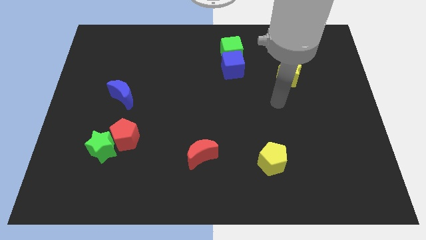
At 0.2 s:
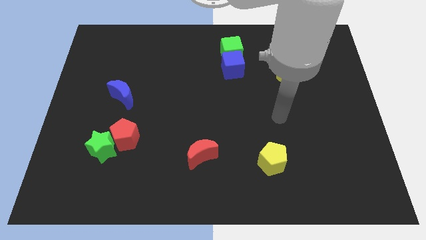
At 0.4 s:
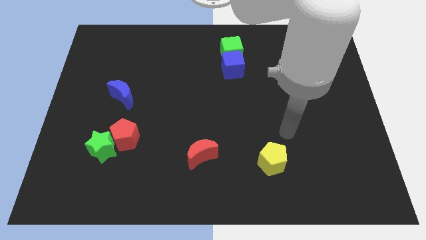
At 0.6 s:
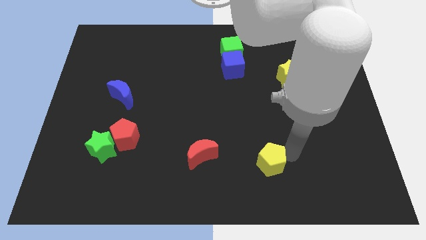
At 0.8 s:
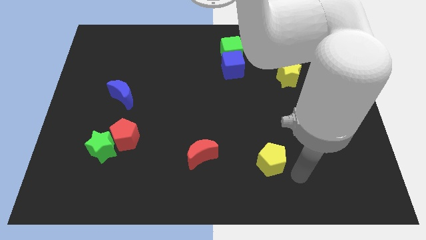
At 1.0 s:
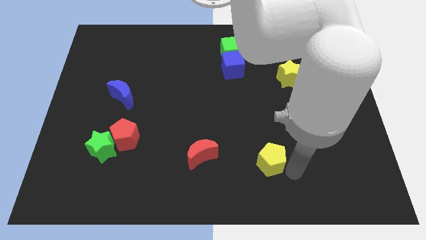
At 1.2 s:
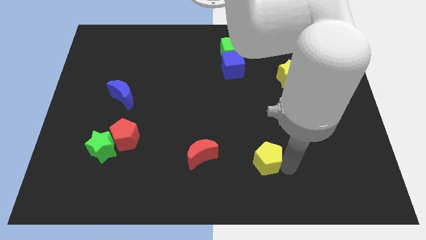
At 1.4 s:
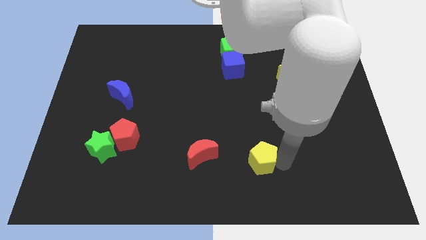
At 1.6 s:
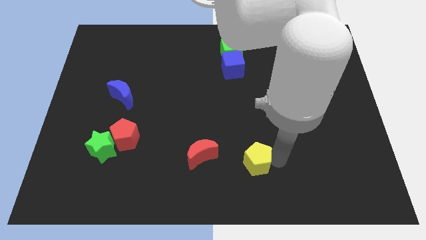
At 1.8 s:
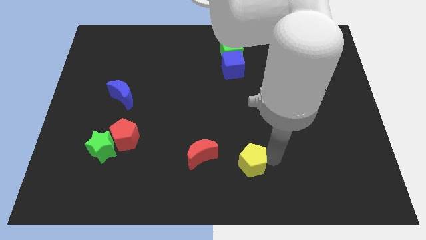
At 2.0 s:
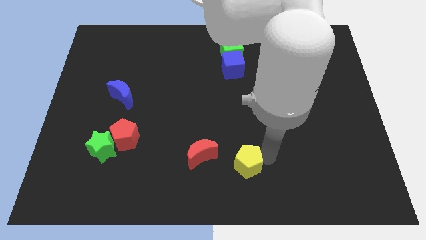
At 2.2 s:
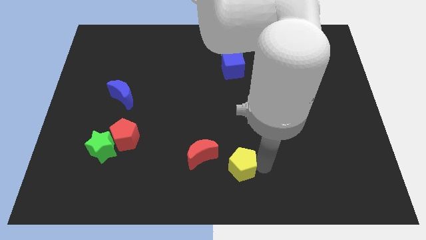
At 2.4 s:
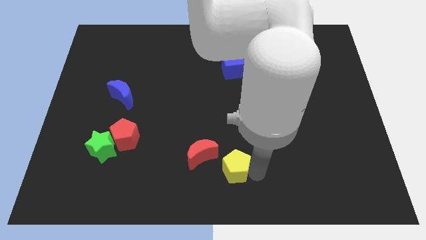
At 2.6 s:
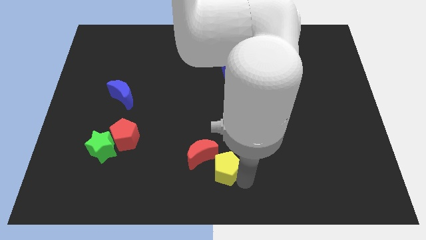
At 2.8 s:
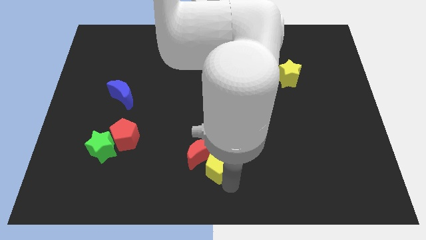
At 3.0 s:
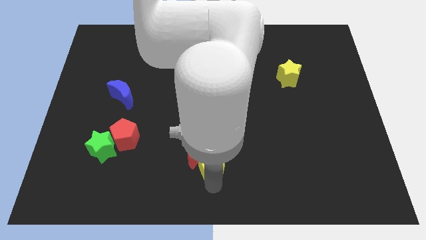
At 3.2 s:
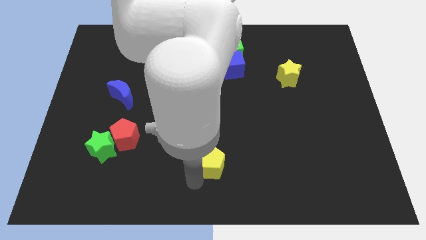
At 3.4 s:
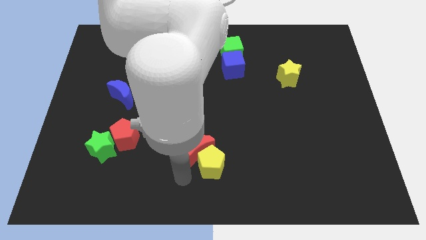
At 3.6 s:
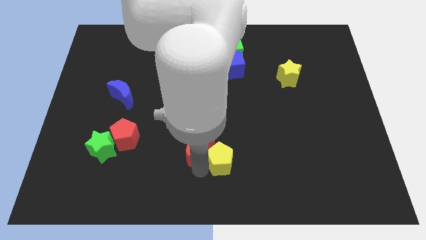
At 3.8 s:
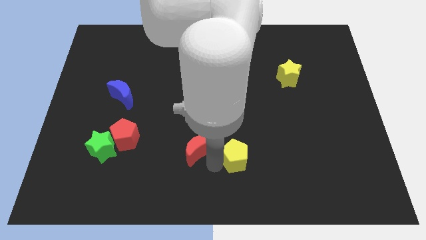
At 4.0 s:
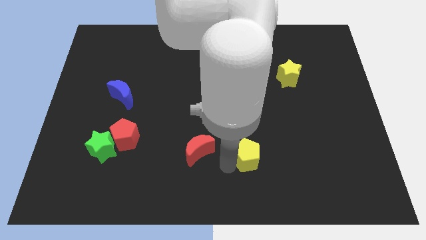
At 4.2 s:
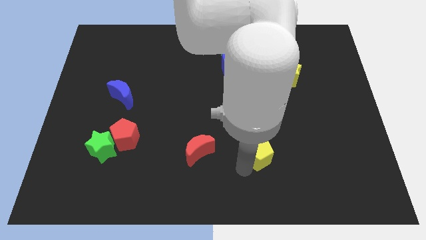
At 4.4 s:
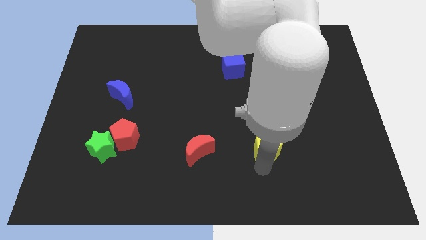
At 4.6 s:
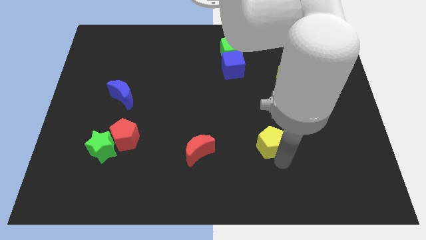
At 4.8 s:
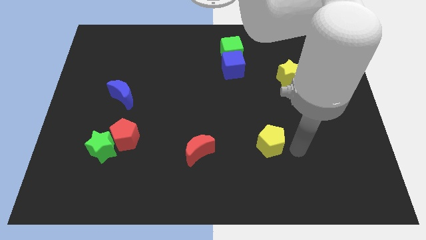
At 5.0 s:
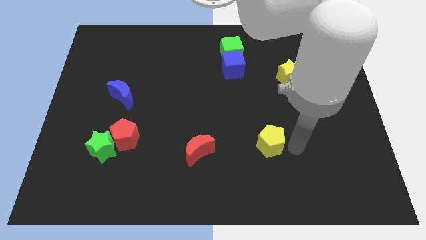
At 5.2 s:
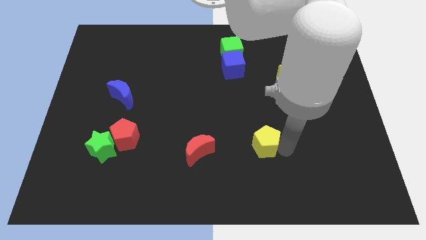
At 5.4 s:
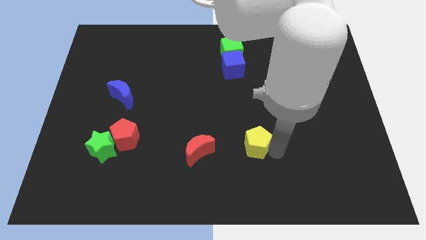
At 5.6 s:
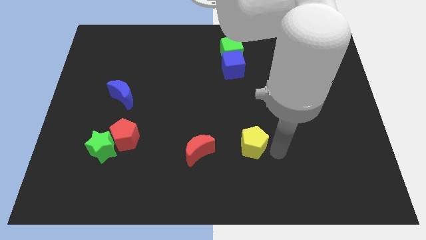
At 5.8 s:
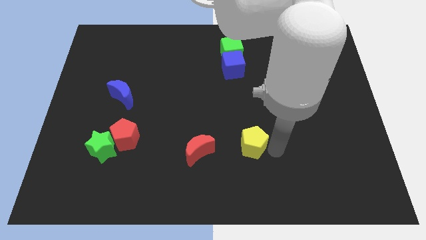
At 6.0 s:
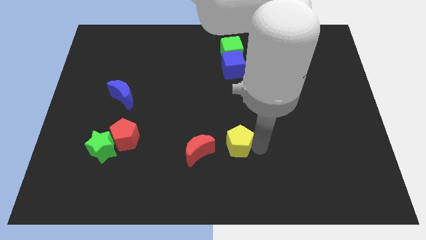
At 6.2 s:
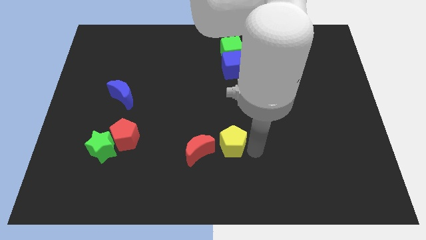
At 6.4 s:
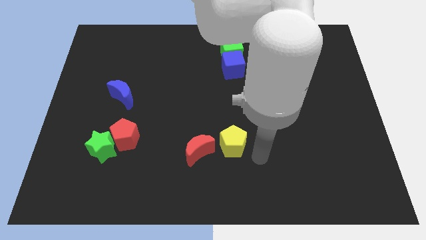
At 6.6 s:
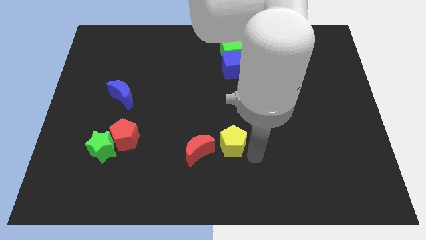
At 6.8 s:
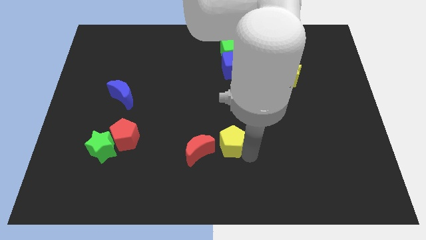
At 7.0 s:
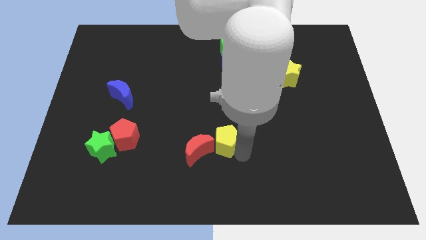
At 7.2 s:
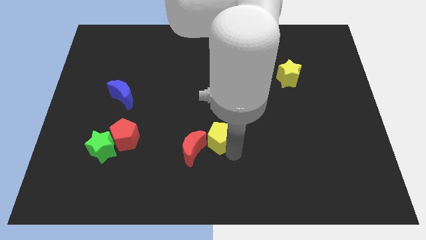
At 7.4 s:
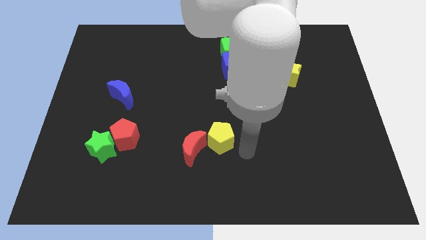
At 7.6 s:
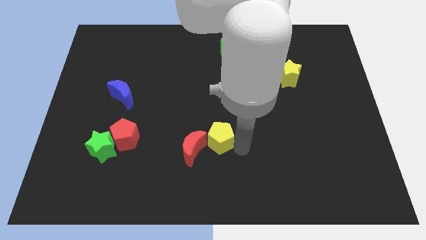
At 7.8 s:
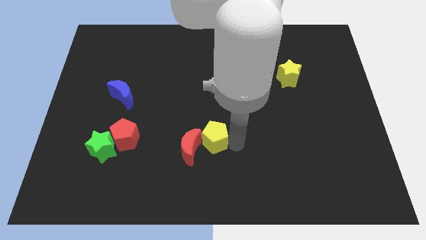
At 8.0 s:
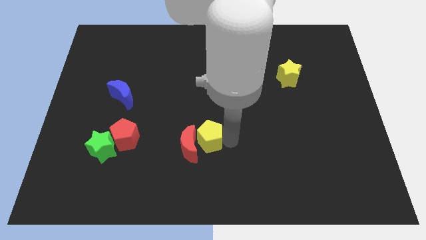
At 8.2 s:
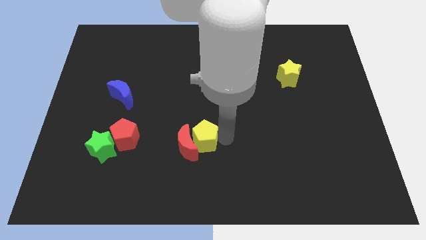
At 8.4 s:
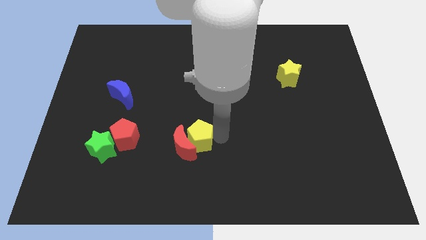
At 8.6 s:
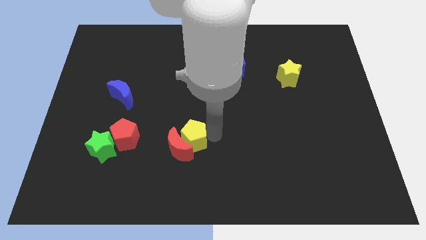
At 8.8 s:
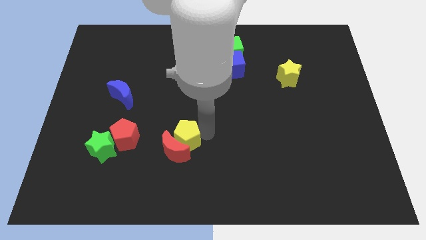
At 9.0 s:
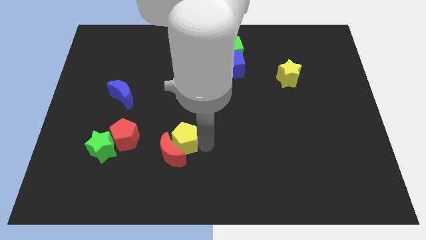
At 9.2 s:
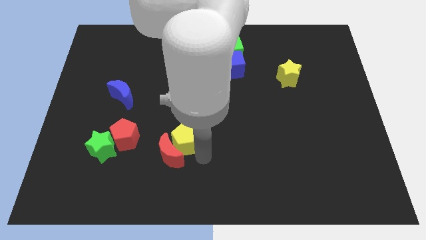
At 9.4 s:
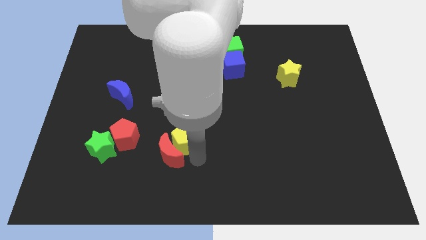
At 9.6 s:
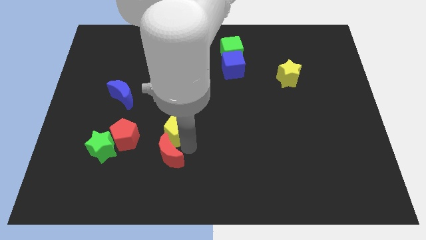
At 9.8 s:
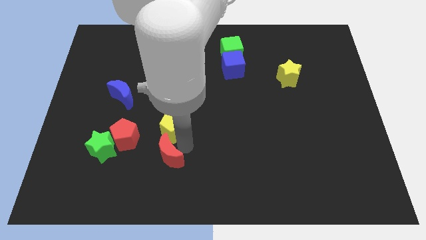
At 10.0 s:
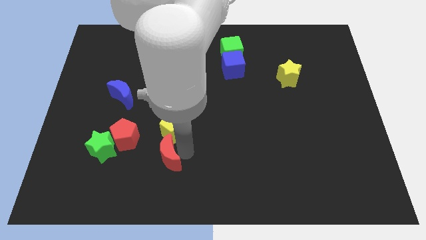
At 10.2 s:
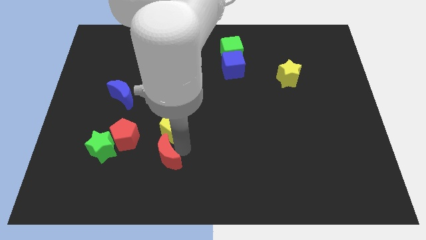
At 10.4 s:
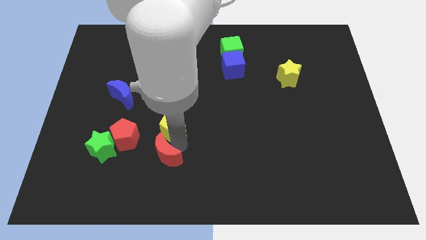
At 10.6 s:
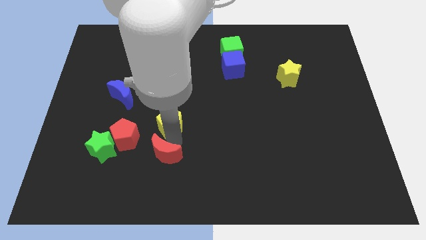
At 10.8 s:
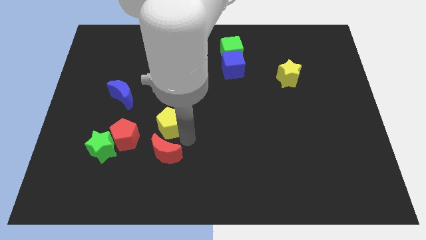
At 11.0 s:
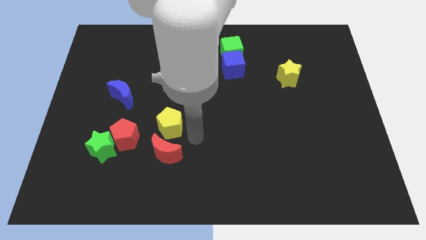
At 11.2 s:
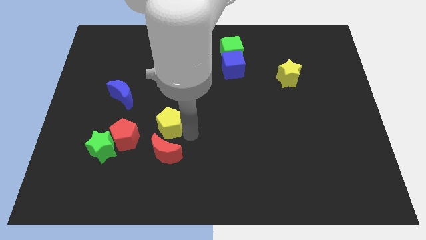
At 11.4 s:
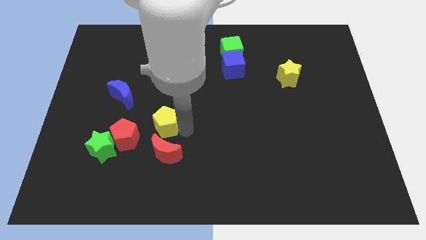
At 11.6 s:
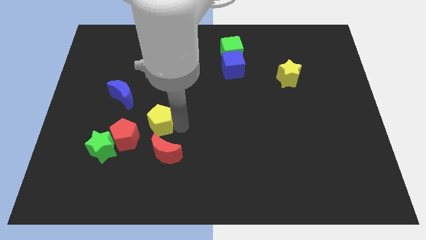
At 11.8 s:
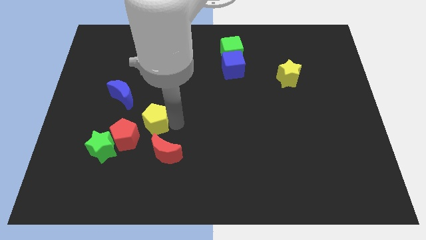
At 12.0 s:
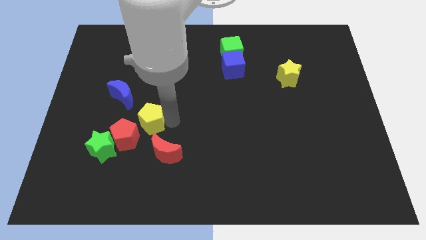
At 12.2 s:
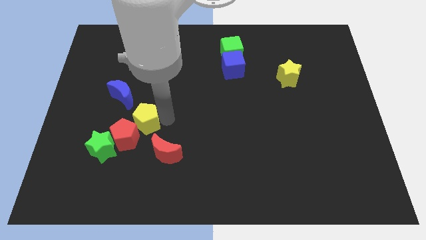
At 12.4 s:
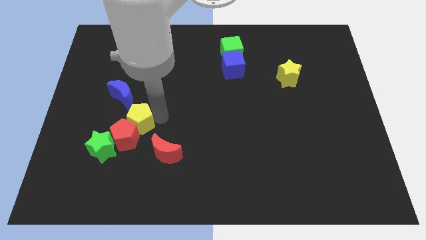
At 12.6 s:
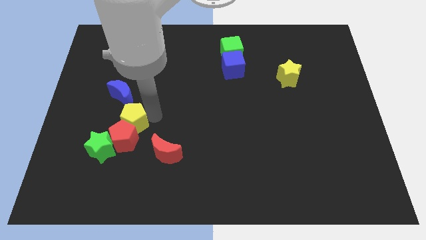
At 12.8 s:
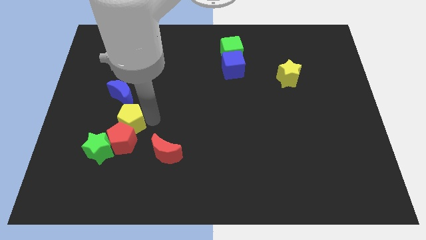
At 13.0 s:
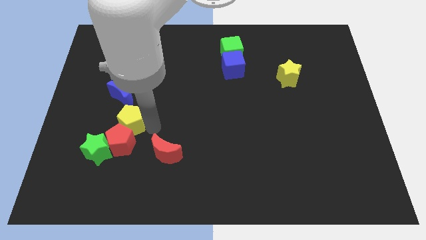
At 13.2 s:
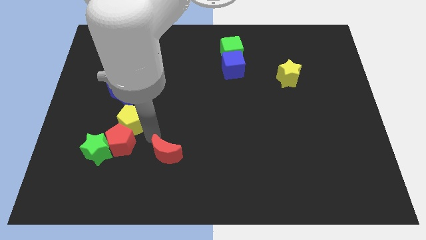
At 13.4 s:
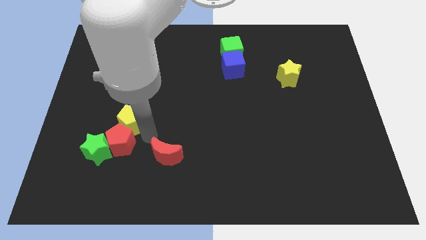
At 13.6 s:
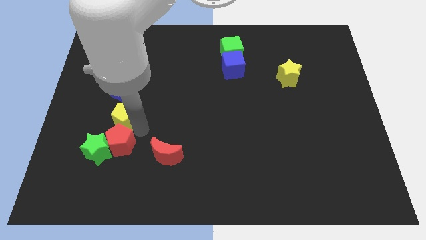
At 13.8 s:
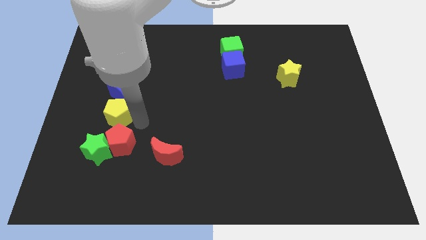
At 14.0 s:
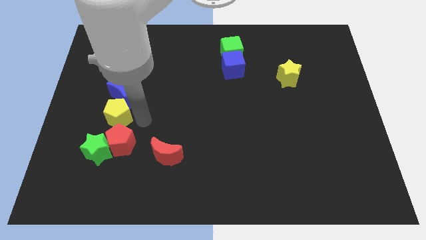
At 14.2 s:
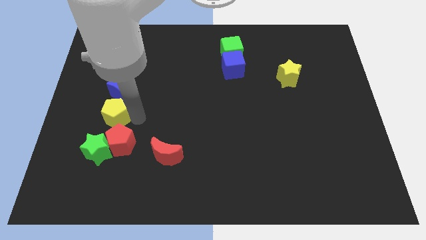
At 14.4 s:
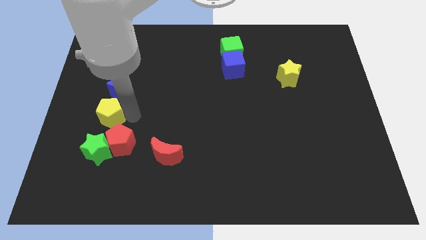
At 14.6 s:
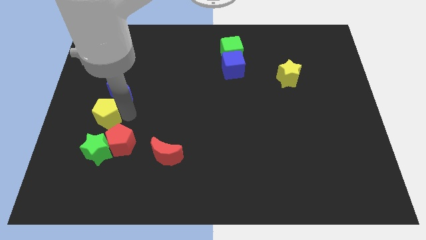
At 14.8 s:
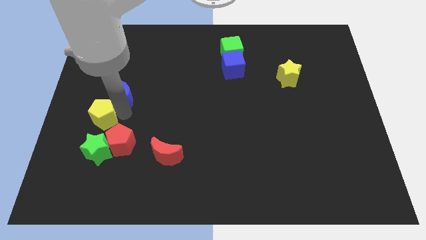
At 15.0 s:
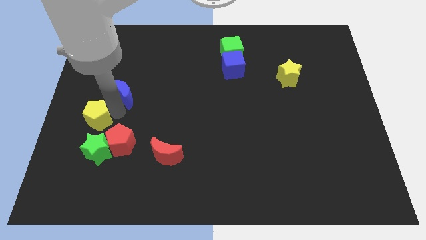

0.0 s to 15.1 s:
push the yellow pentagon to the left side
